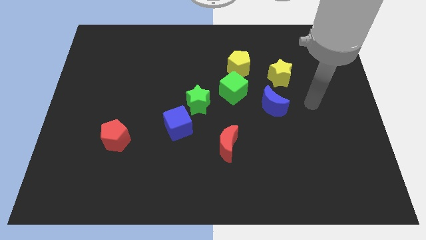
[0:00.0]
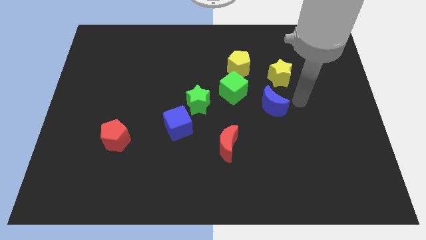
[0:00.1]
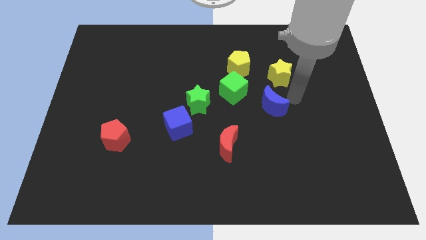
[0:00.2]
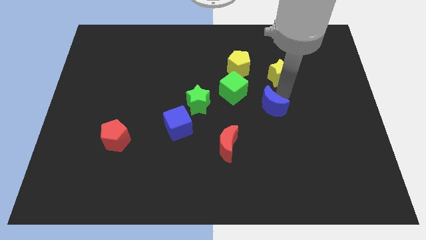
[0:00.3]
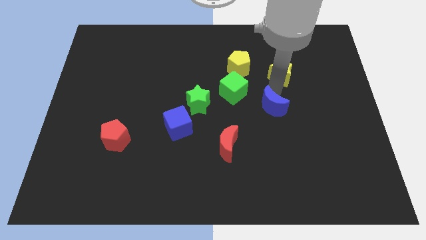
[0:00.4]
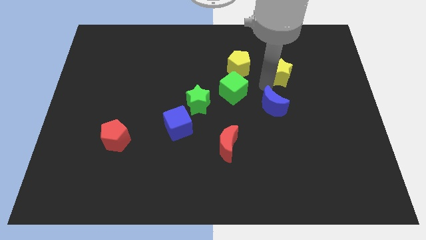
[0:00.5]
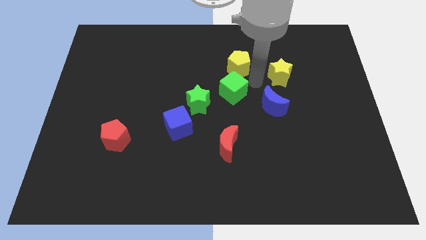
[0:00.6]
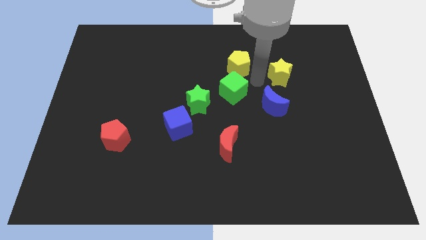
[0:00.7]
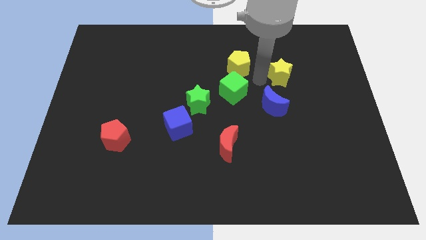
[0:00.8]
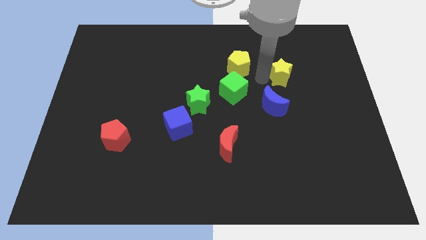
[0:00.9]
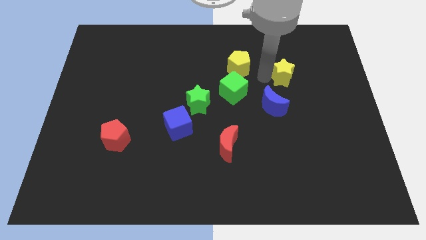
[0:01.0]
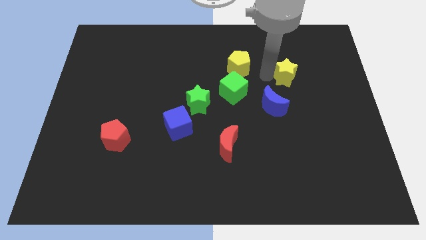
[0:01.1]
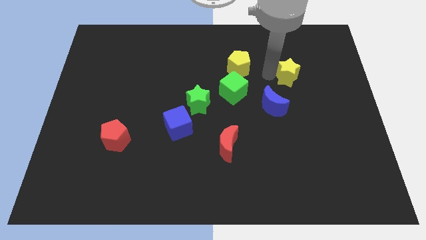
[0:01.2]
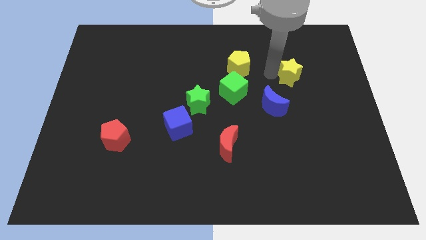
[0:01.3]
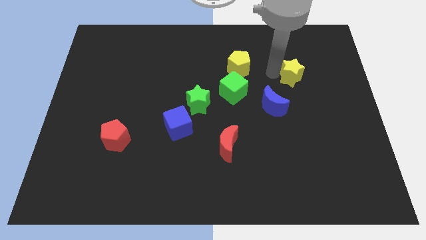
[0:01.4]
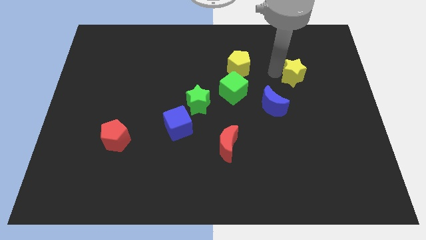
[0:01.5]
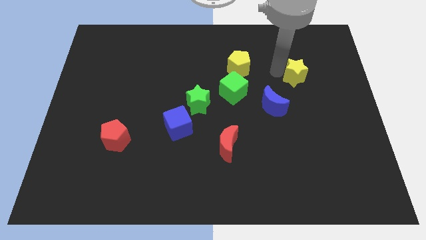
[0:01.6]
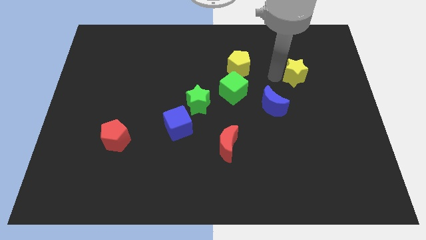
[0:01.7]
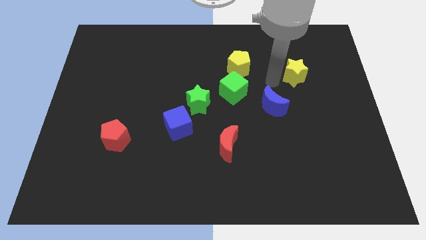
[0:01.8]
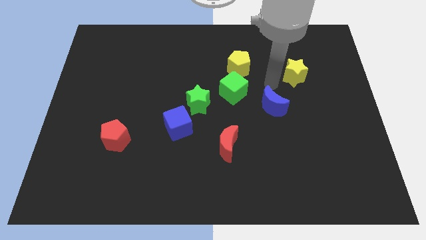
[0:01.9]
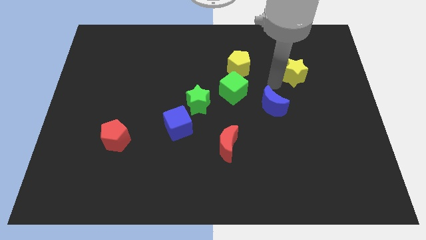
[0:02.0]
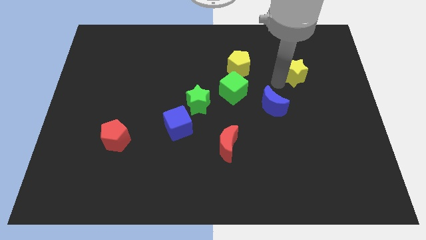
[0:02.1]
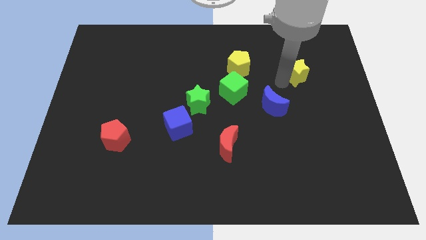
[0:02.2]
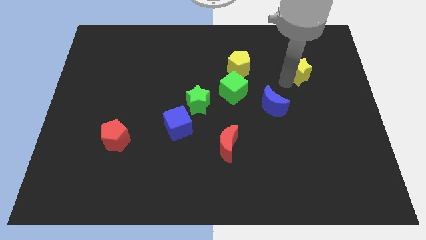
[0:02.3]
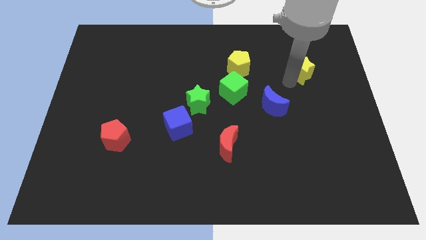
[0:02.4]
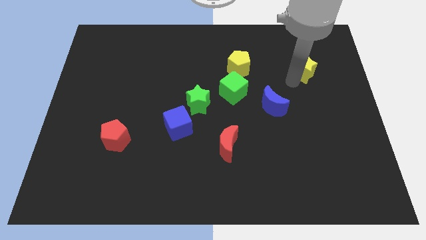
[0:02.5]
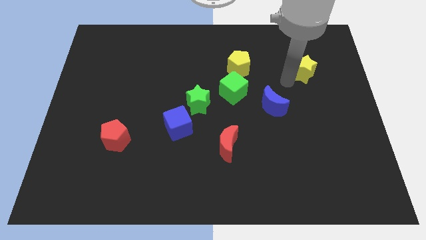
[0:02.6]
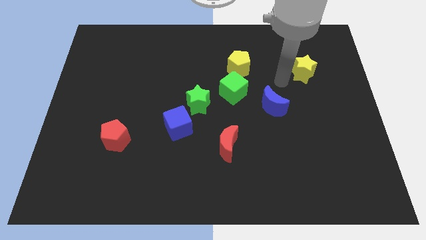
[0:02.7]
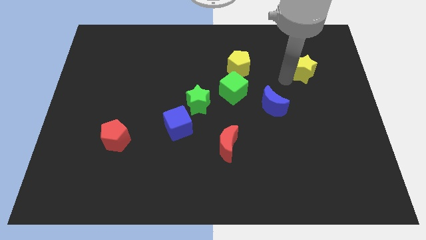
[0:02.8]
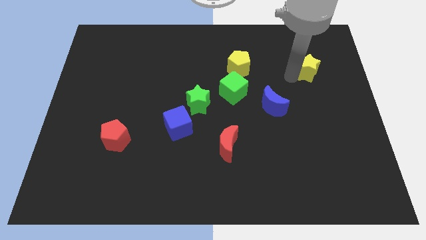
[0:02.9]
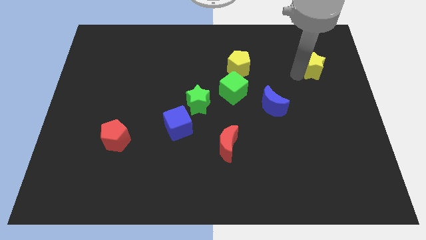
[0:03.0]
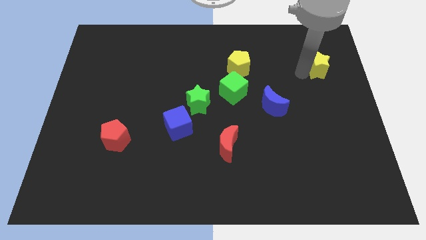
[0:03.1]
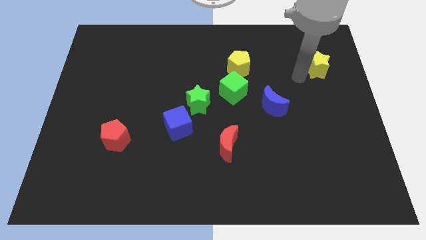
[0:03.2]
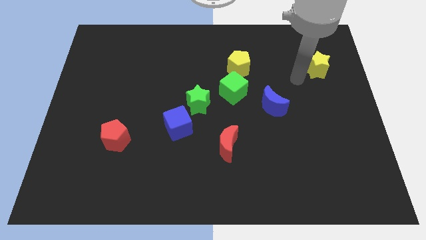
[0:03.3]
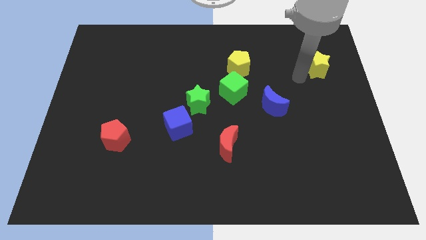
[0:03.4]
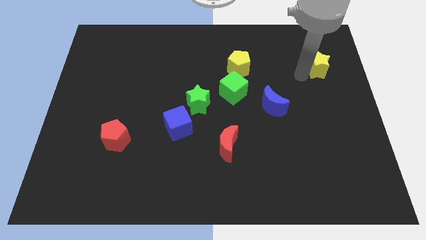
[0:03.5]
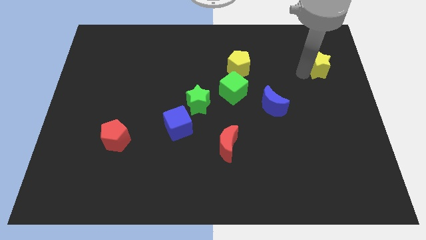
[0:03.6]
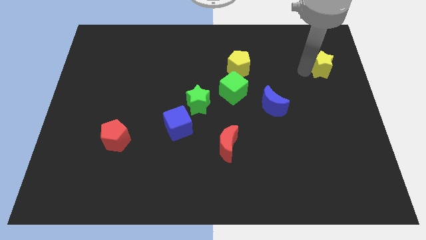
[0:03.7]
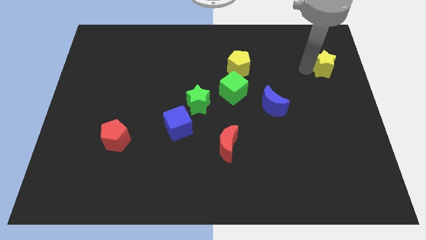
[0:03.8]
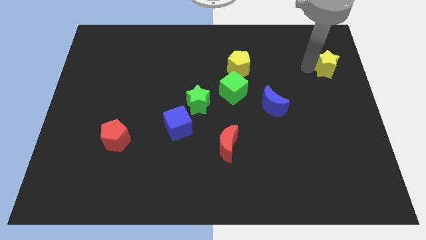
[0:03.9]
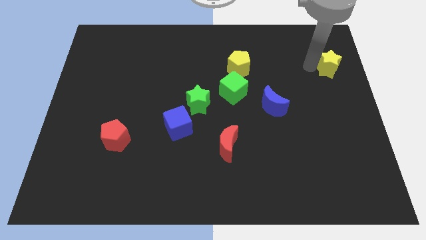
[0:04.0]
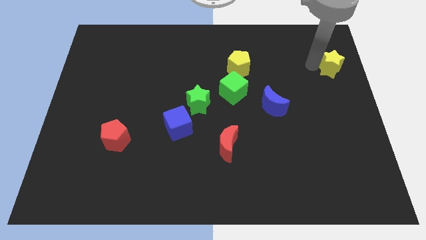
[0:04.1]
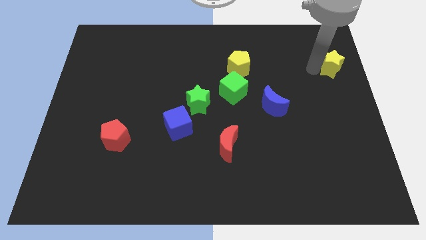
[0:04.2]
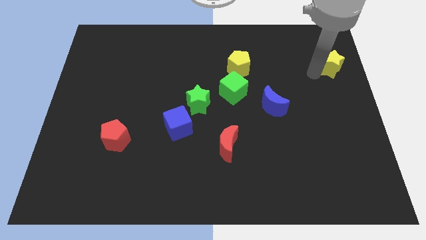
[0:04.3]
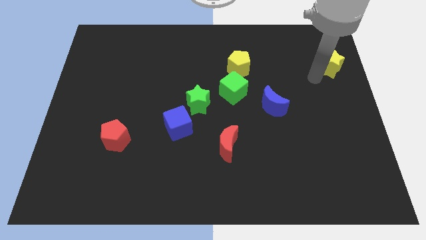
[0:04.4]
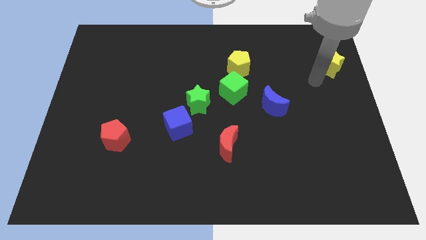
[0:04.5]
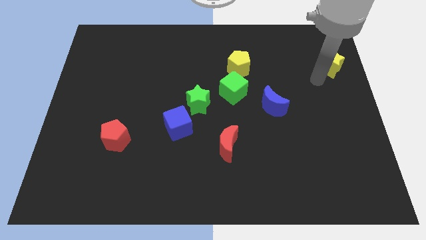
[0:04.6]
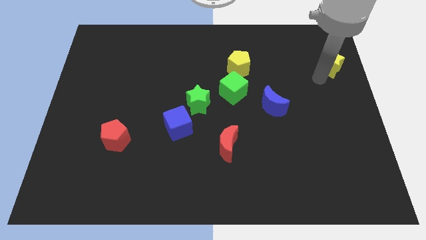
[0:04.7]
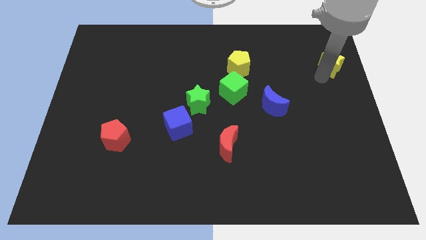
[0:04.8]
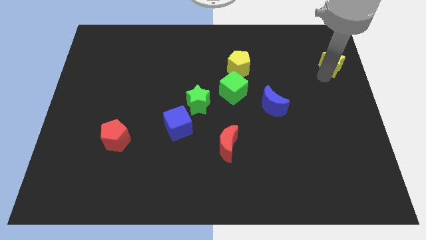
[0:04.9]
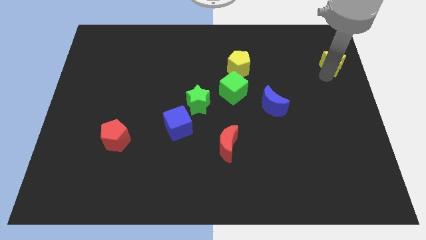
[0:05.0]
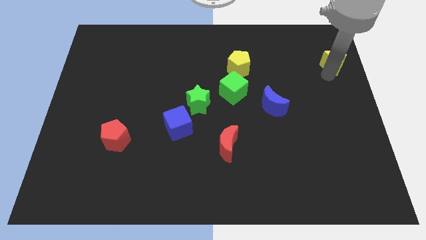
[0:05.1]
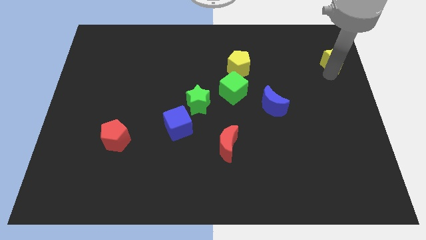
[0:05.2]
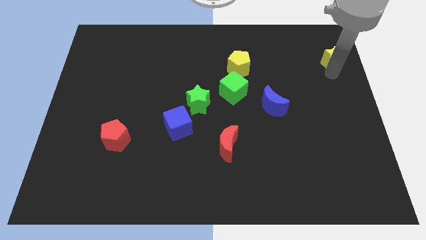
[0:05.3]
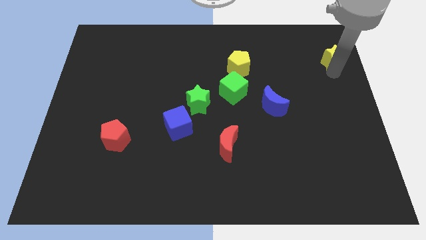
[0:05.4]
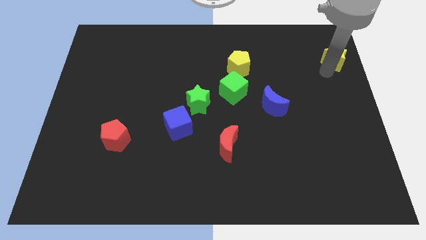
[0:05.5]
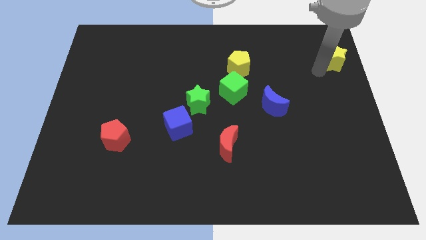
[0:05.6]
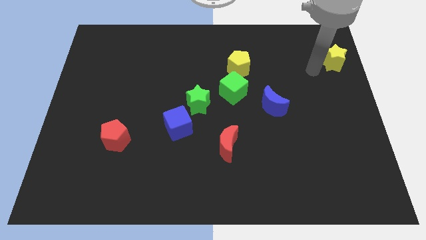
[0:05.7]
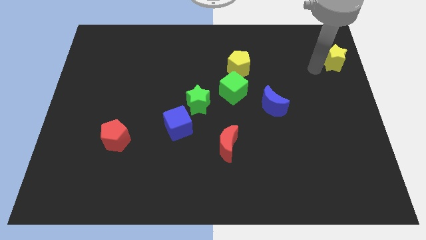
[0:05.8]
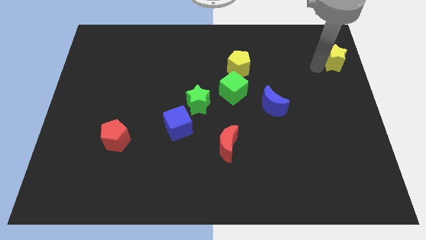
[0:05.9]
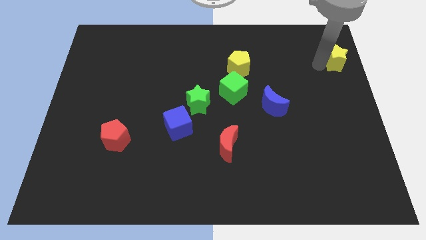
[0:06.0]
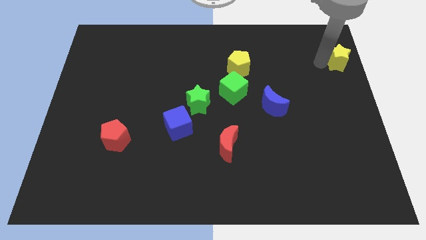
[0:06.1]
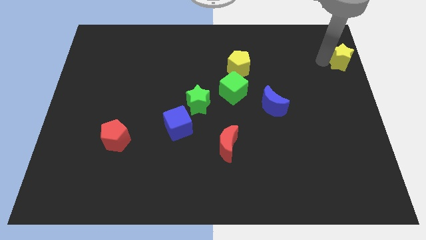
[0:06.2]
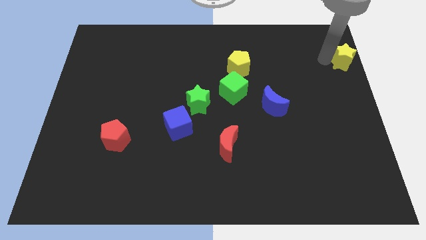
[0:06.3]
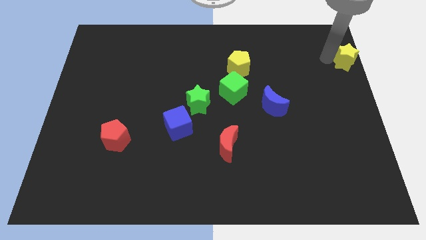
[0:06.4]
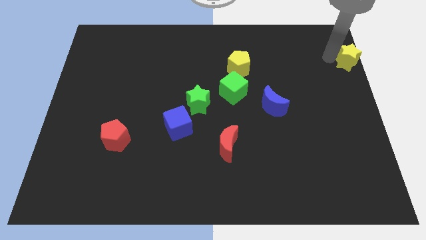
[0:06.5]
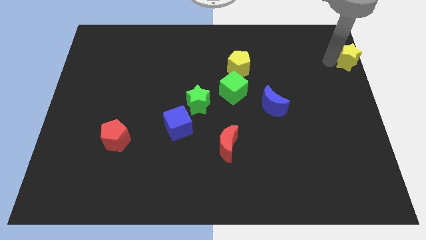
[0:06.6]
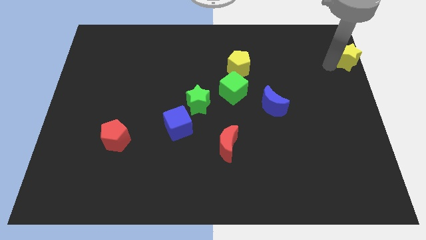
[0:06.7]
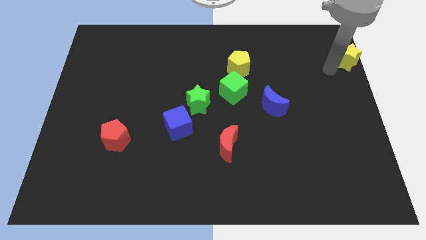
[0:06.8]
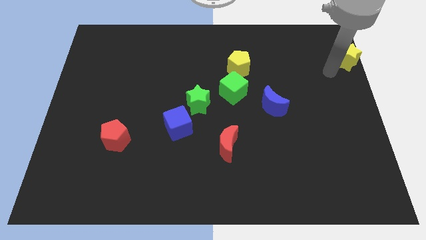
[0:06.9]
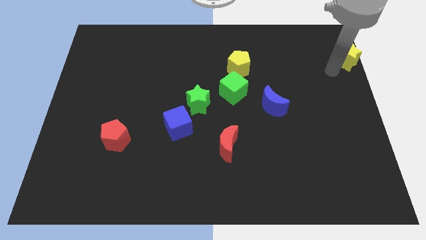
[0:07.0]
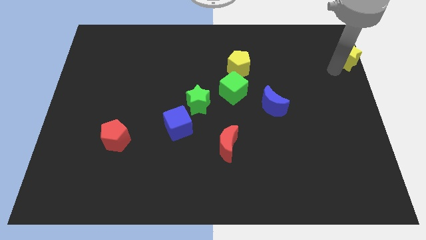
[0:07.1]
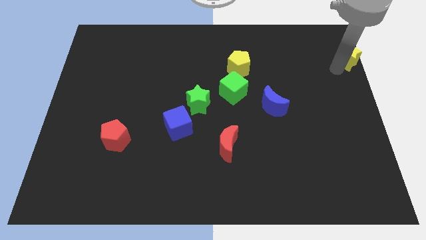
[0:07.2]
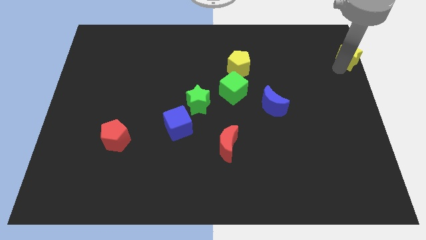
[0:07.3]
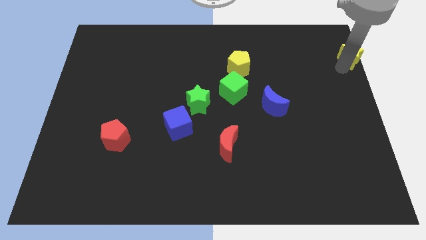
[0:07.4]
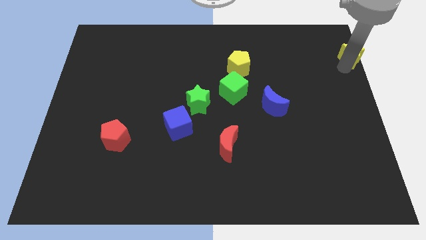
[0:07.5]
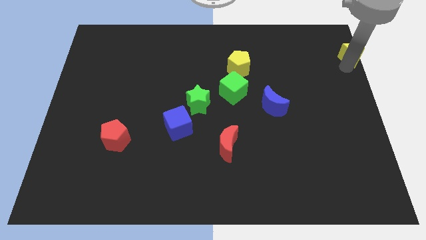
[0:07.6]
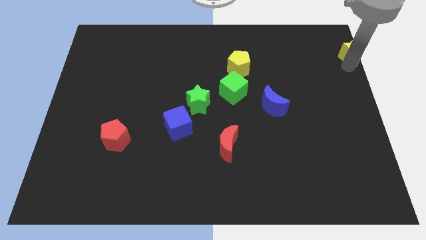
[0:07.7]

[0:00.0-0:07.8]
slide the yellow star to the top right
